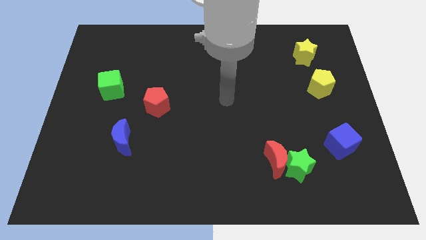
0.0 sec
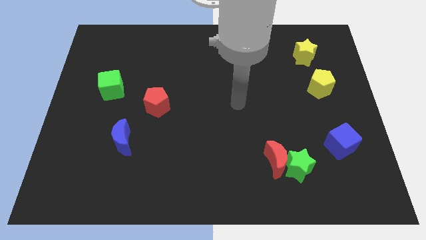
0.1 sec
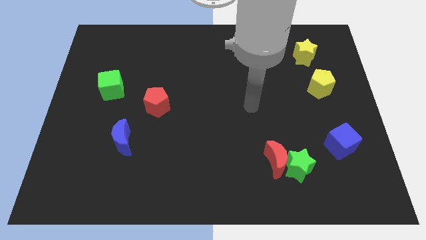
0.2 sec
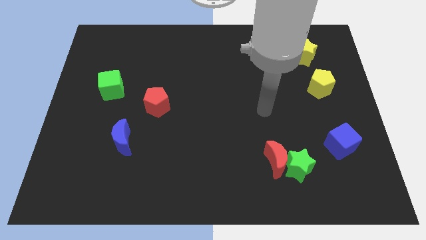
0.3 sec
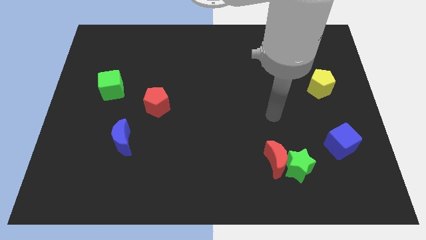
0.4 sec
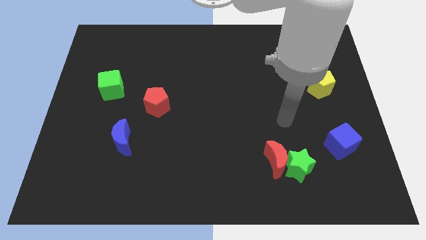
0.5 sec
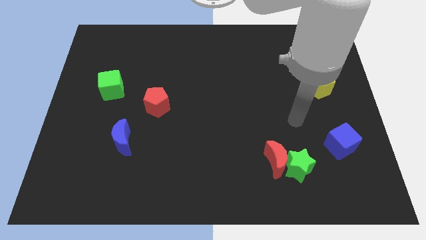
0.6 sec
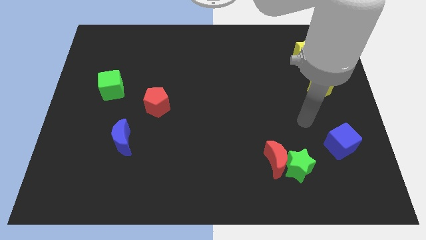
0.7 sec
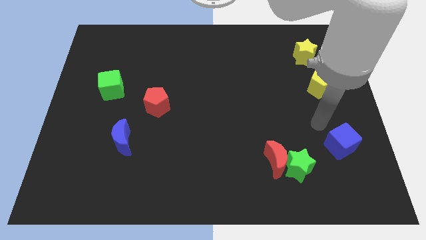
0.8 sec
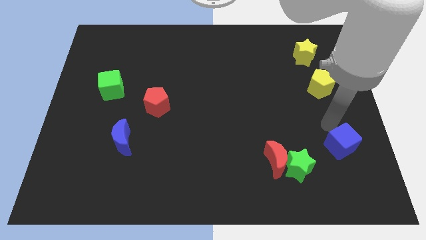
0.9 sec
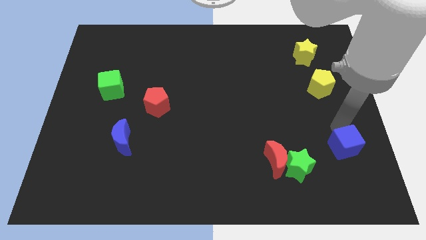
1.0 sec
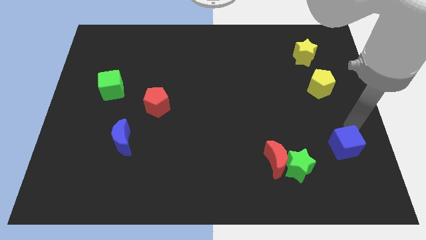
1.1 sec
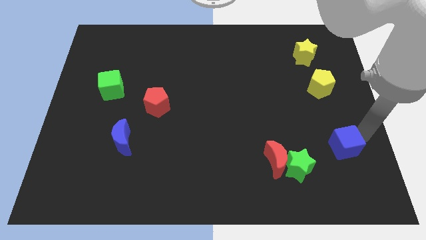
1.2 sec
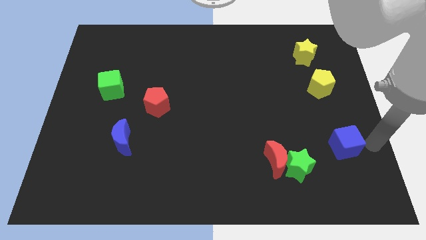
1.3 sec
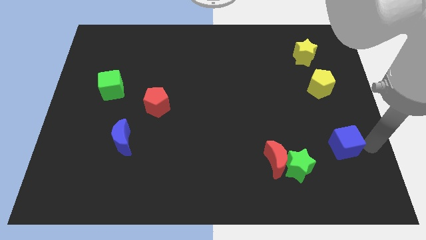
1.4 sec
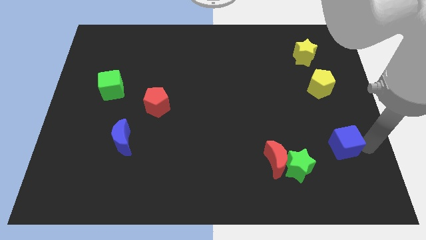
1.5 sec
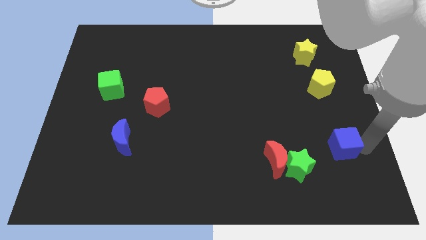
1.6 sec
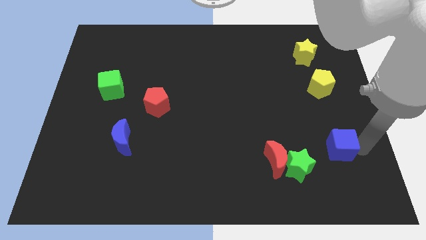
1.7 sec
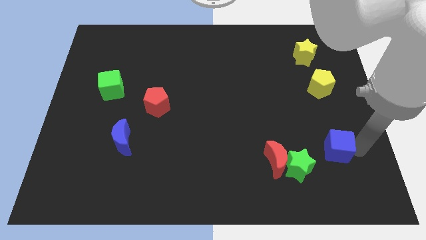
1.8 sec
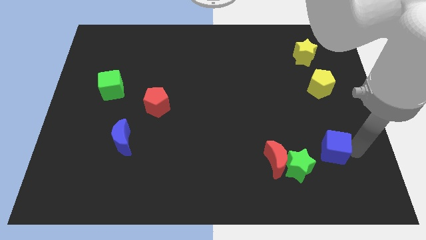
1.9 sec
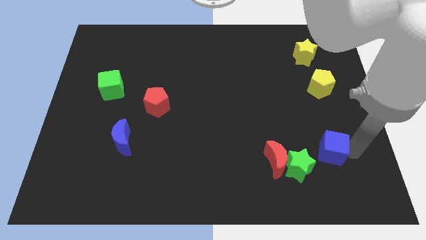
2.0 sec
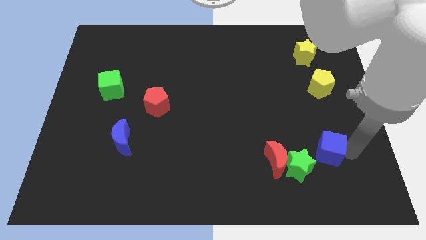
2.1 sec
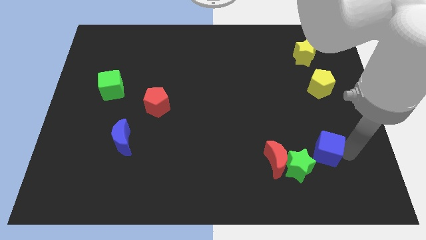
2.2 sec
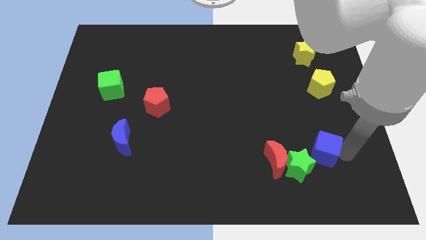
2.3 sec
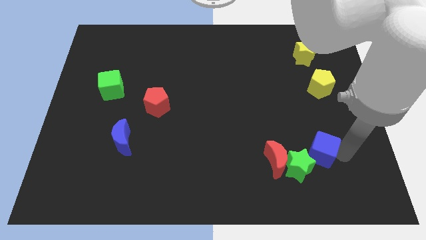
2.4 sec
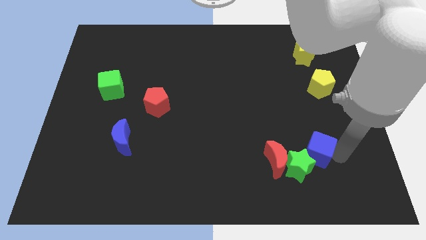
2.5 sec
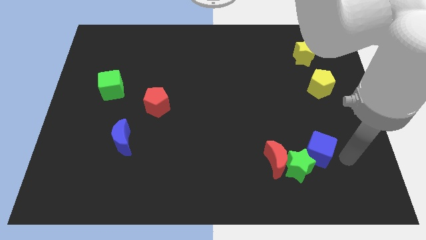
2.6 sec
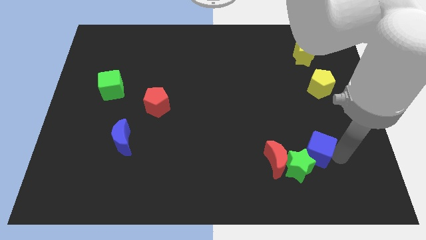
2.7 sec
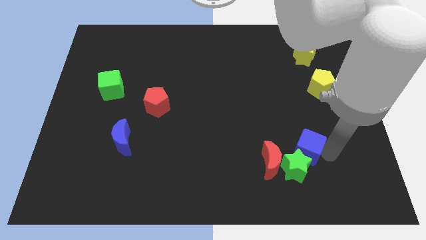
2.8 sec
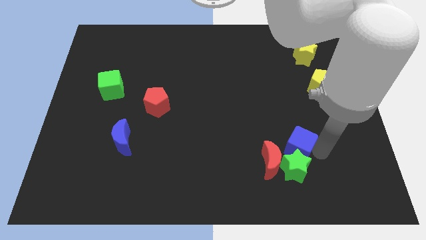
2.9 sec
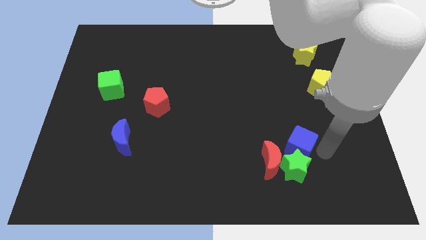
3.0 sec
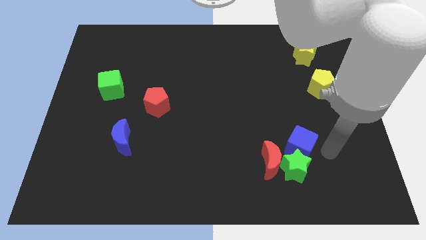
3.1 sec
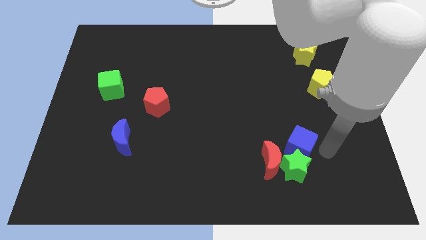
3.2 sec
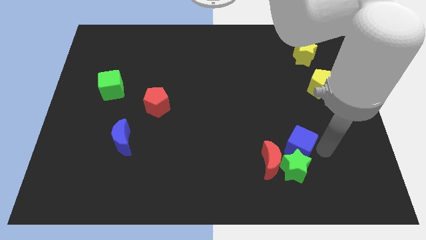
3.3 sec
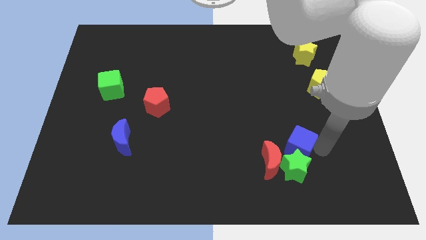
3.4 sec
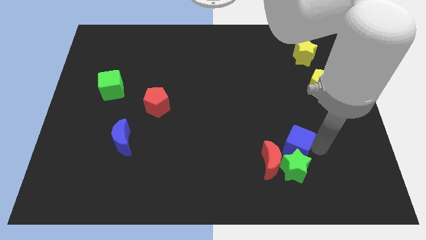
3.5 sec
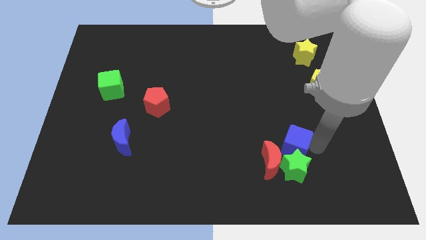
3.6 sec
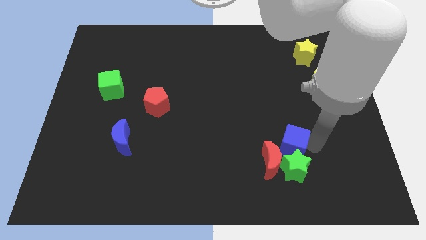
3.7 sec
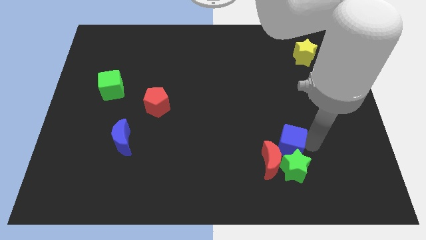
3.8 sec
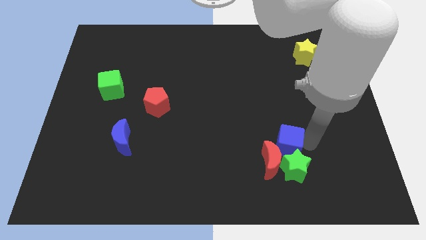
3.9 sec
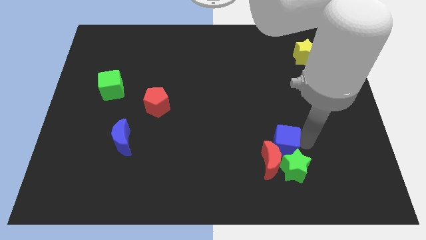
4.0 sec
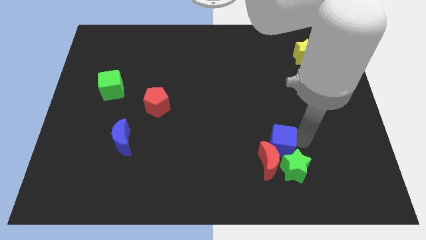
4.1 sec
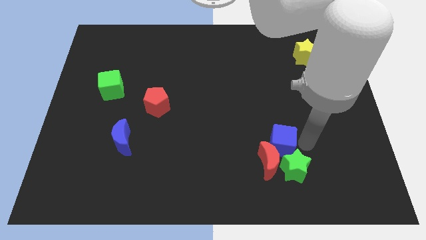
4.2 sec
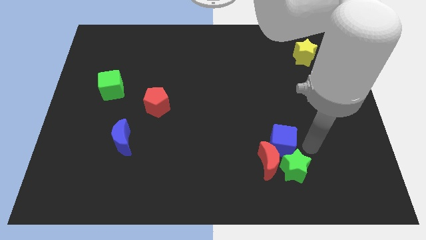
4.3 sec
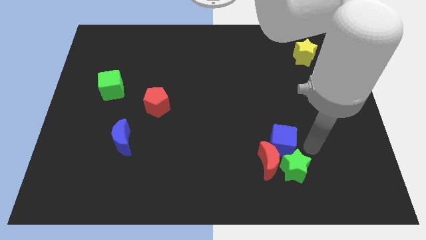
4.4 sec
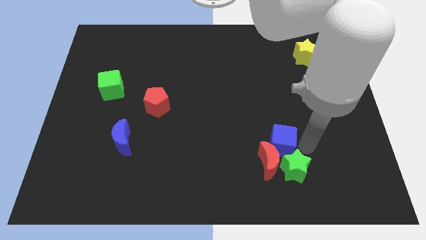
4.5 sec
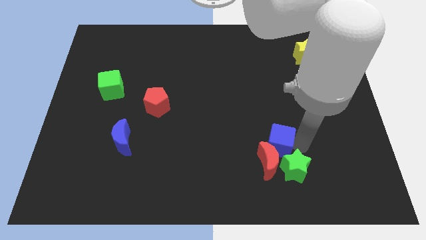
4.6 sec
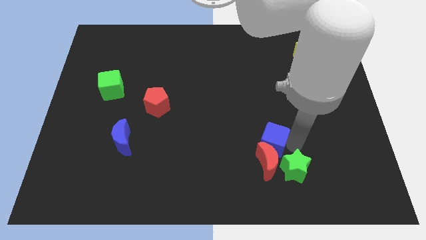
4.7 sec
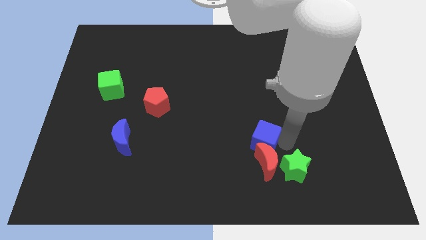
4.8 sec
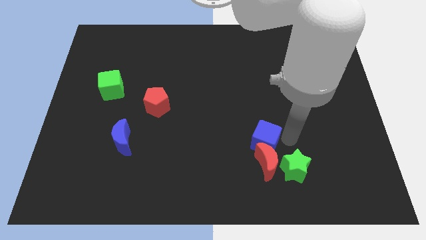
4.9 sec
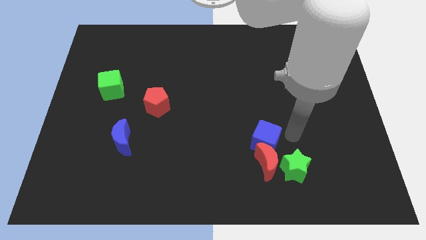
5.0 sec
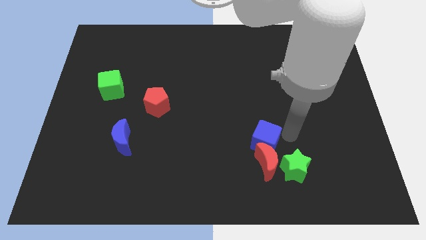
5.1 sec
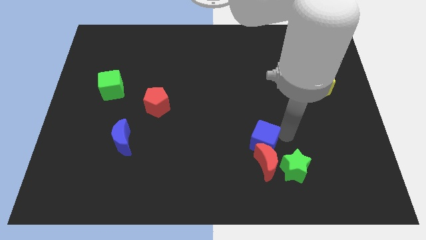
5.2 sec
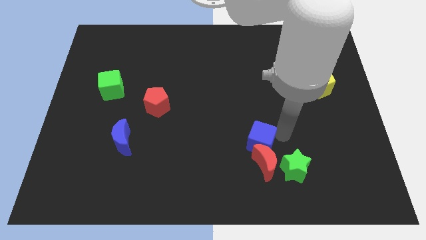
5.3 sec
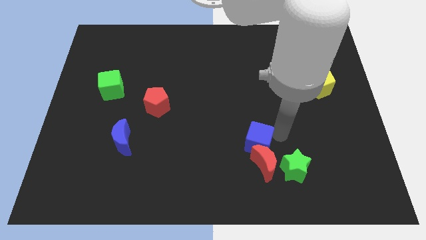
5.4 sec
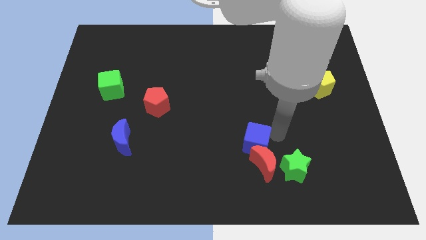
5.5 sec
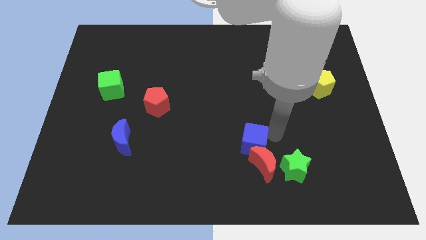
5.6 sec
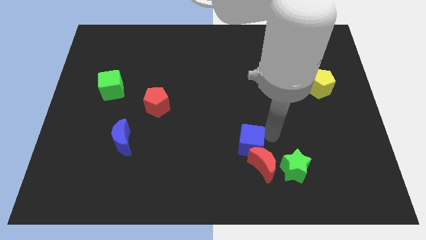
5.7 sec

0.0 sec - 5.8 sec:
slide the blue cube to the left

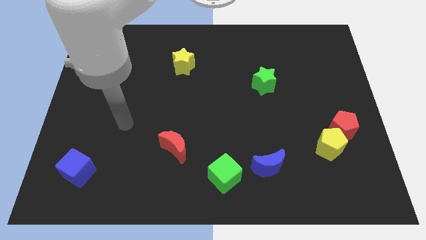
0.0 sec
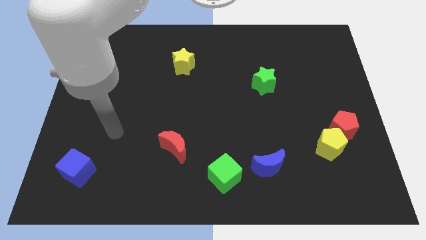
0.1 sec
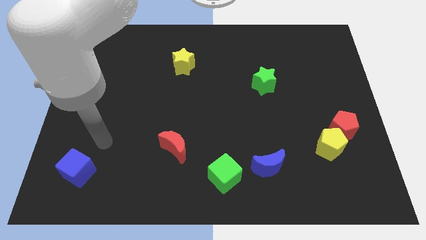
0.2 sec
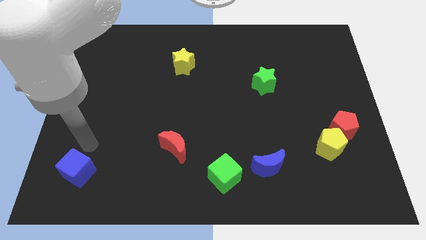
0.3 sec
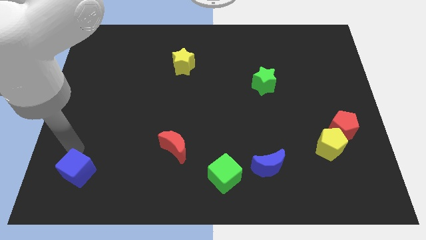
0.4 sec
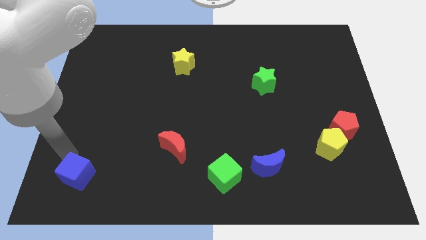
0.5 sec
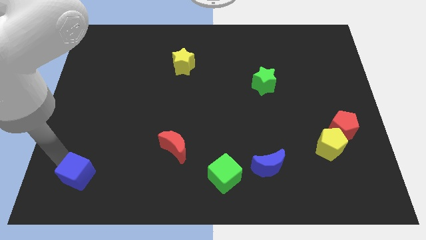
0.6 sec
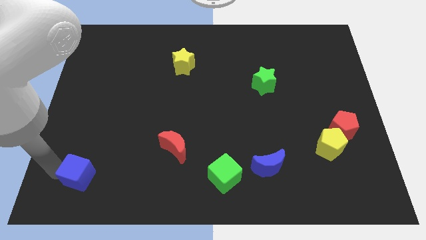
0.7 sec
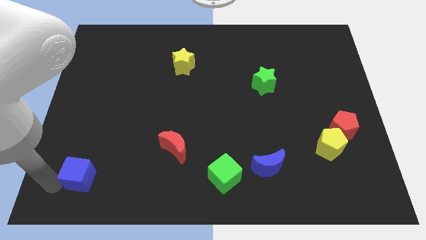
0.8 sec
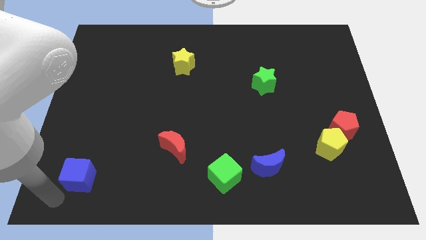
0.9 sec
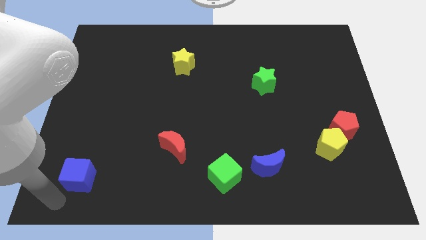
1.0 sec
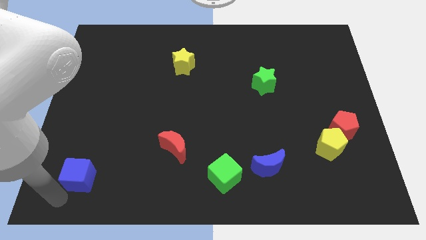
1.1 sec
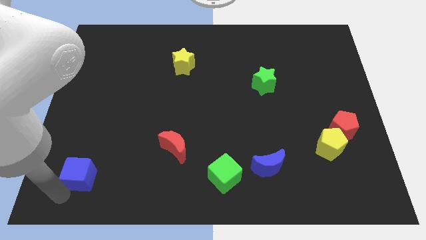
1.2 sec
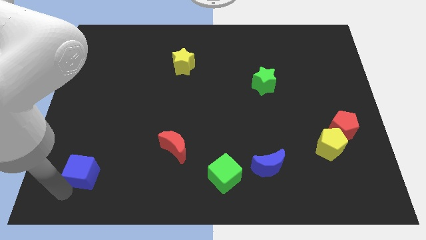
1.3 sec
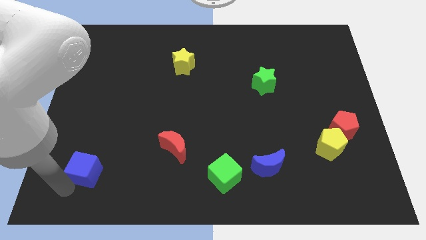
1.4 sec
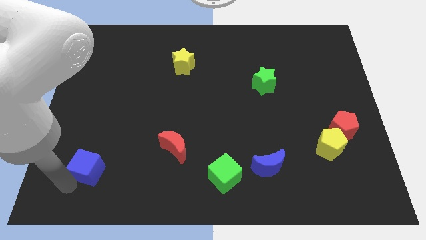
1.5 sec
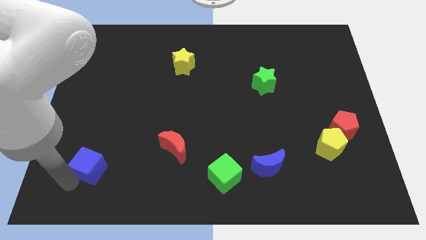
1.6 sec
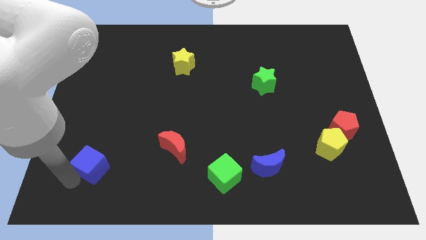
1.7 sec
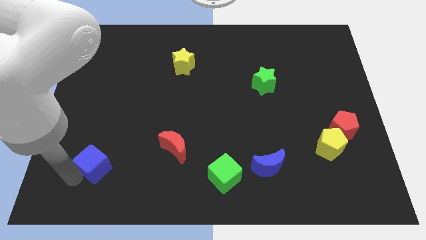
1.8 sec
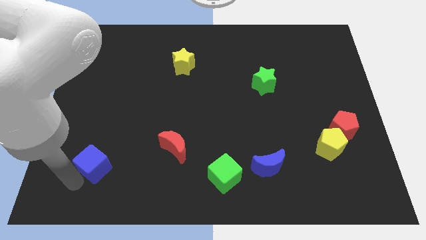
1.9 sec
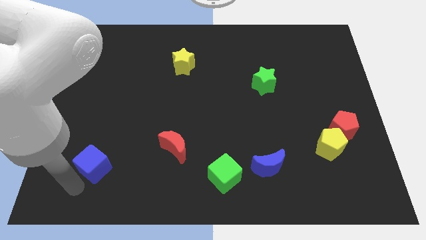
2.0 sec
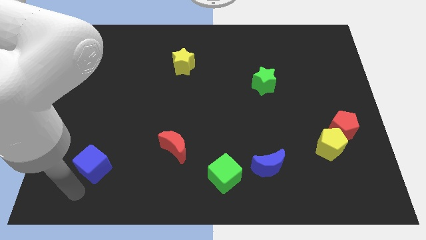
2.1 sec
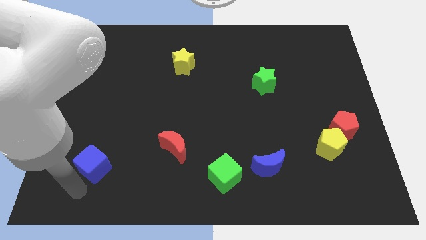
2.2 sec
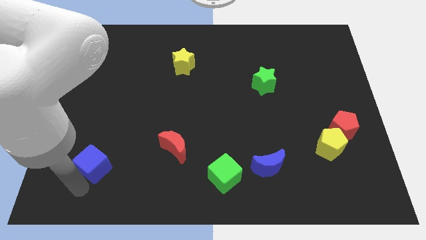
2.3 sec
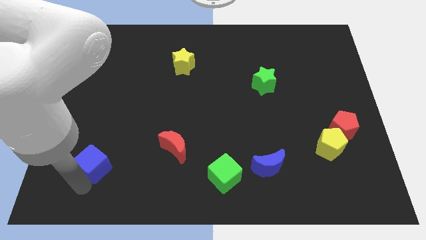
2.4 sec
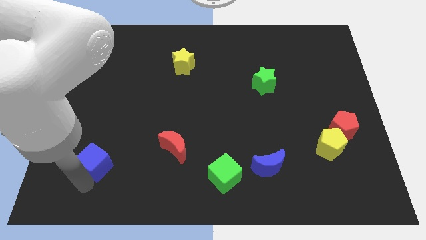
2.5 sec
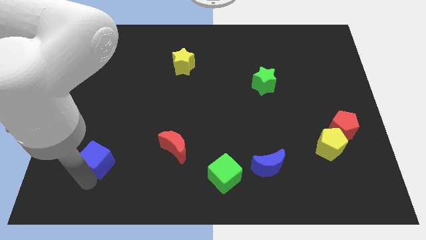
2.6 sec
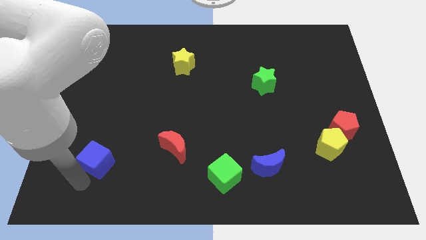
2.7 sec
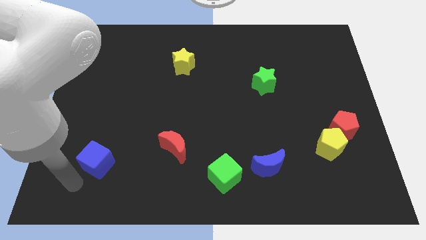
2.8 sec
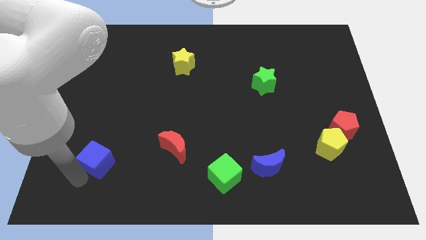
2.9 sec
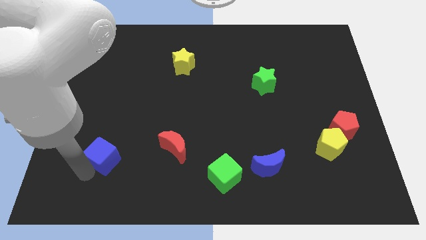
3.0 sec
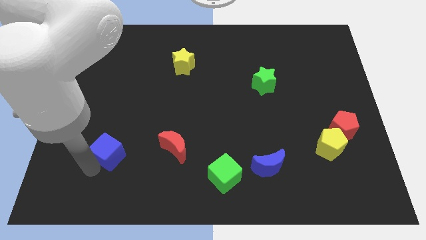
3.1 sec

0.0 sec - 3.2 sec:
push the blue cube slightly upwards and right diagonally
